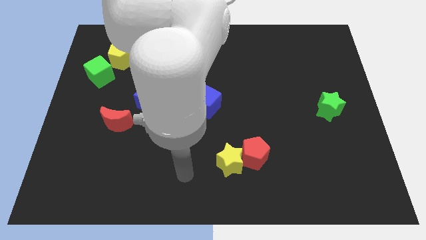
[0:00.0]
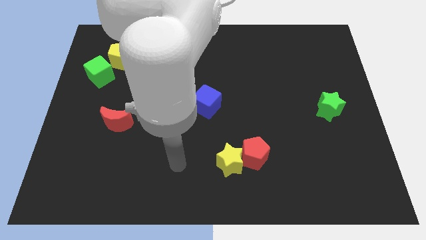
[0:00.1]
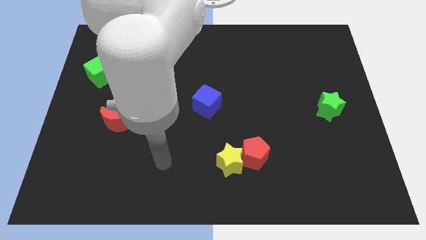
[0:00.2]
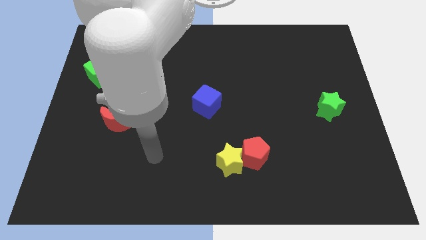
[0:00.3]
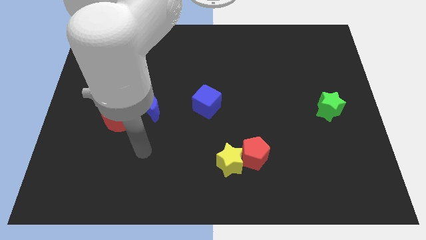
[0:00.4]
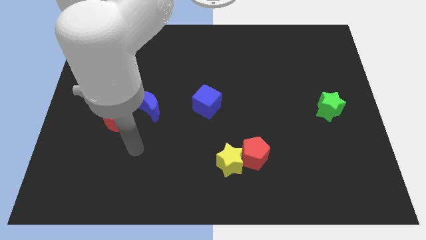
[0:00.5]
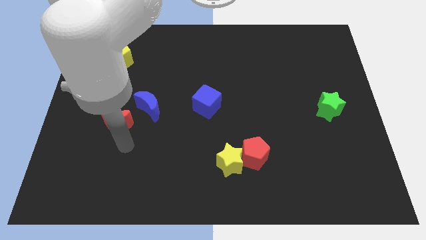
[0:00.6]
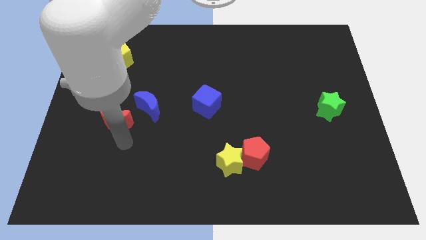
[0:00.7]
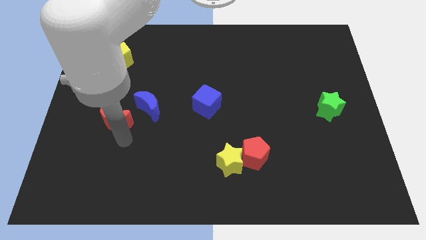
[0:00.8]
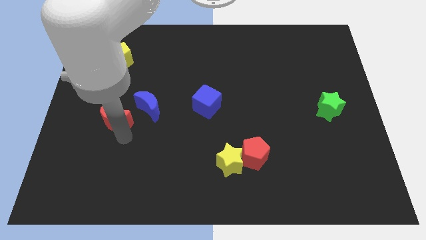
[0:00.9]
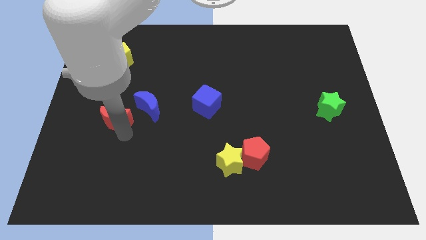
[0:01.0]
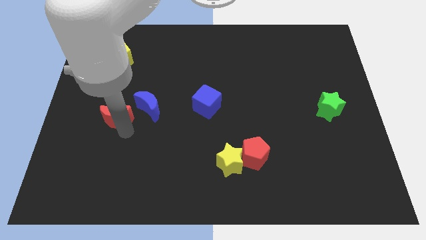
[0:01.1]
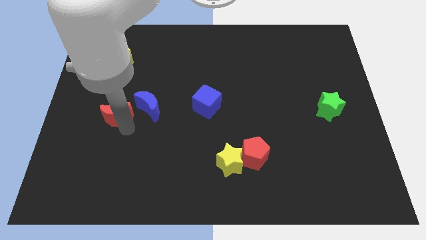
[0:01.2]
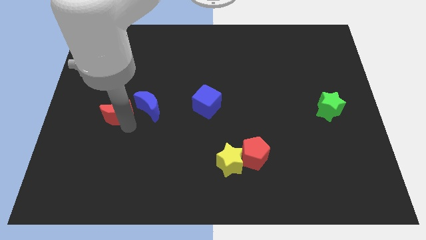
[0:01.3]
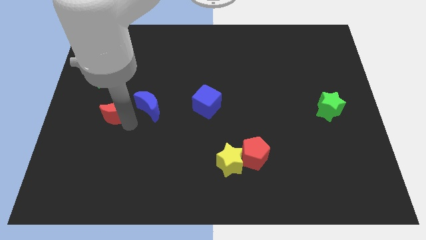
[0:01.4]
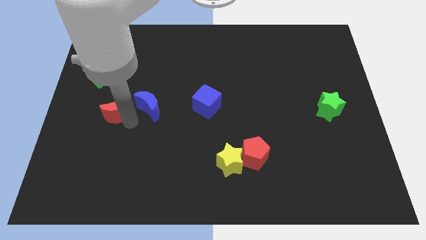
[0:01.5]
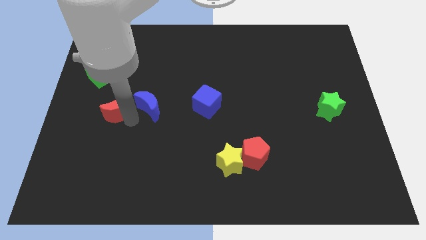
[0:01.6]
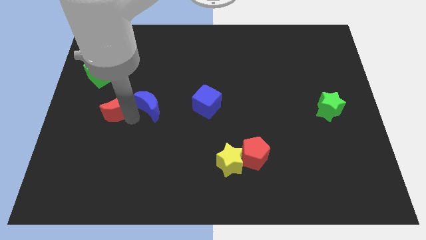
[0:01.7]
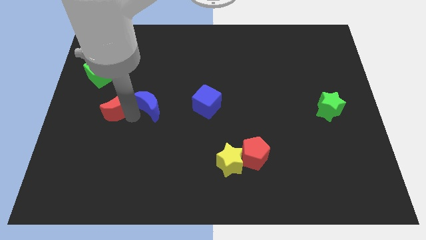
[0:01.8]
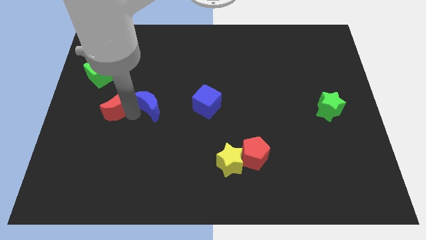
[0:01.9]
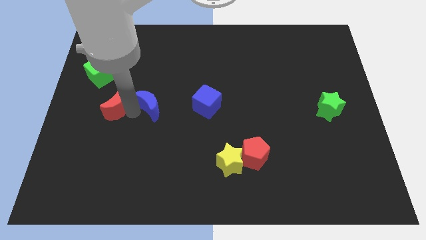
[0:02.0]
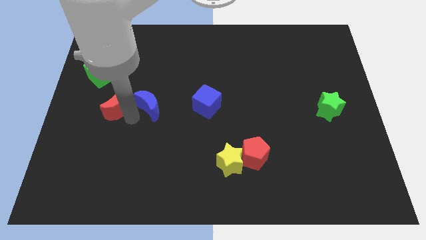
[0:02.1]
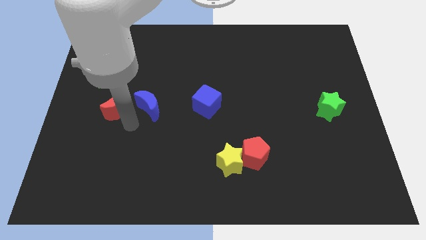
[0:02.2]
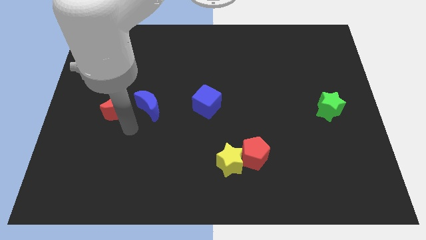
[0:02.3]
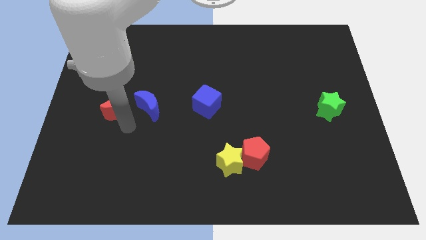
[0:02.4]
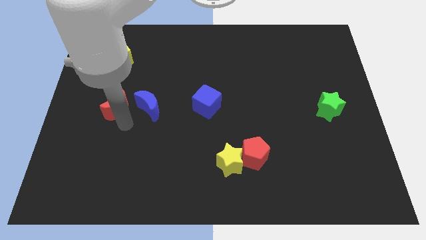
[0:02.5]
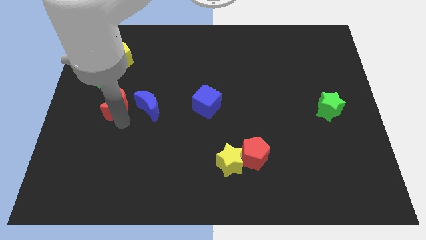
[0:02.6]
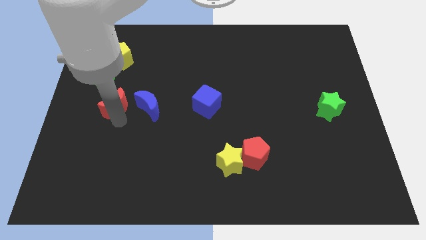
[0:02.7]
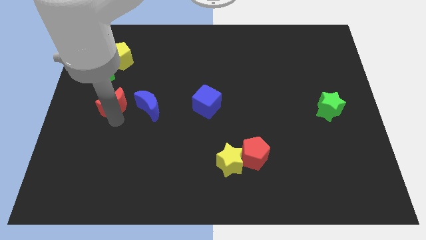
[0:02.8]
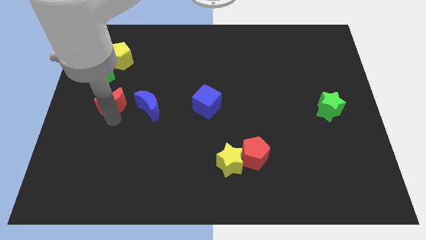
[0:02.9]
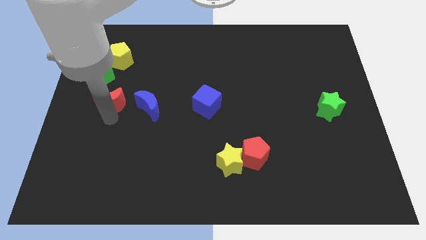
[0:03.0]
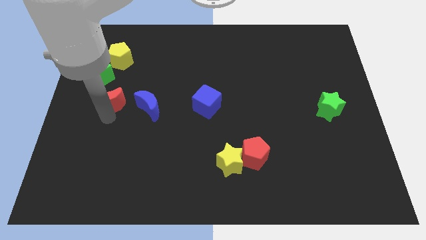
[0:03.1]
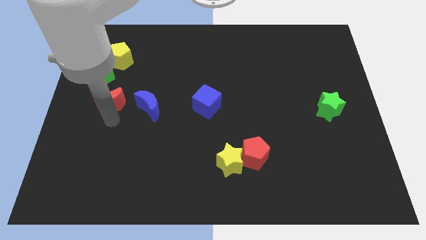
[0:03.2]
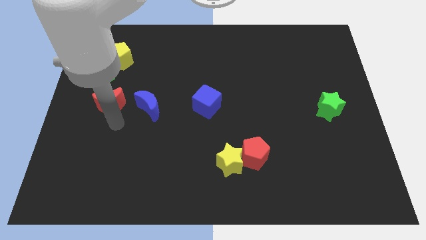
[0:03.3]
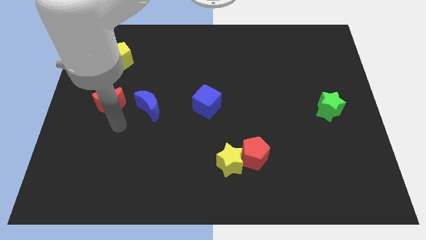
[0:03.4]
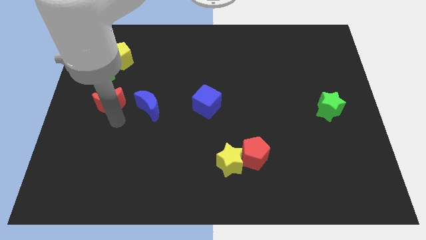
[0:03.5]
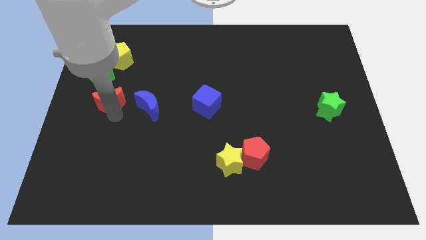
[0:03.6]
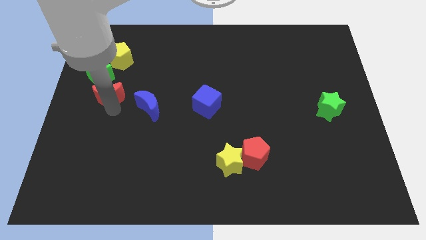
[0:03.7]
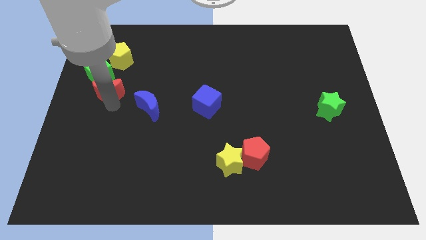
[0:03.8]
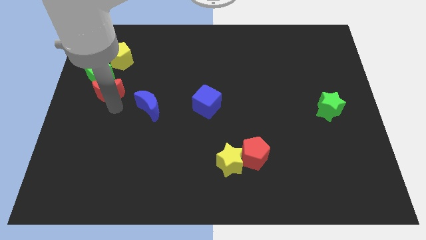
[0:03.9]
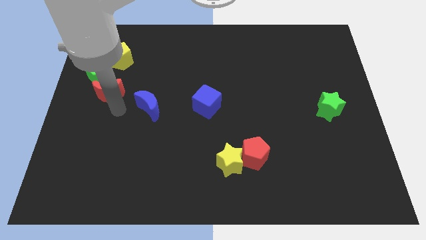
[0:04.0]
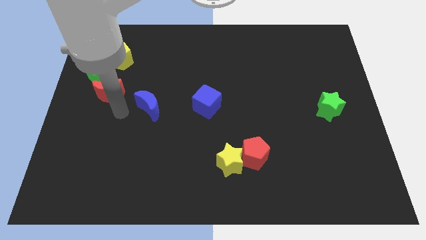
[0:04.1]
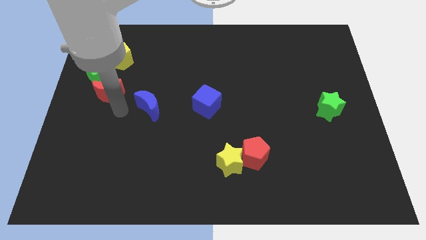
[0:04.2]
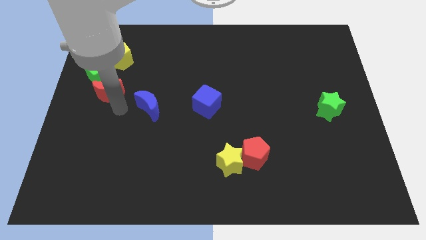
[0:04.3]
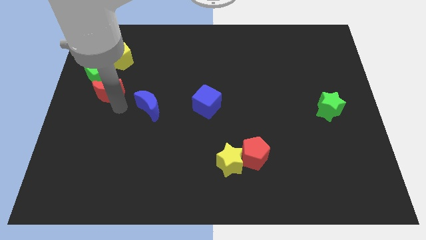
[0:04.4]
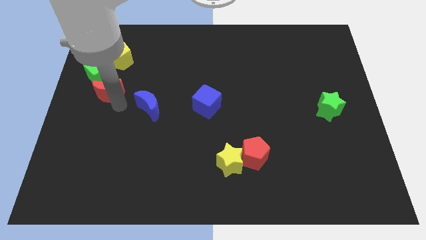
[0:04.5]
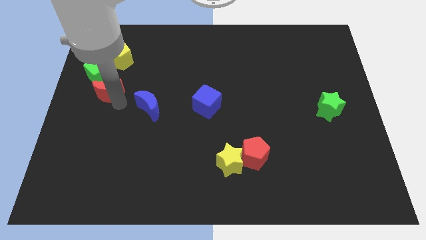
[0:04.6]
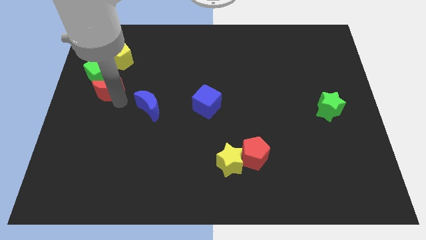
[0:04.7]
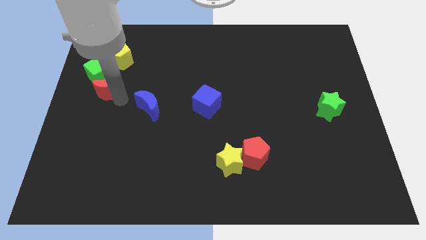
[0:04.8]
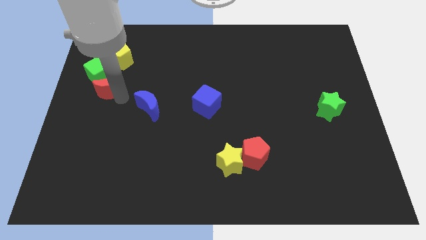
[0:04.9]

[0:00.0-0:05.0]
put the red moon next to the green cube

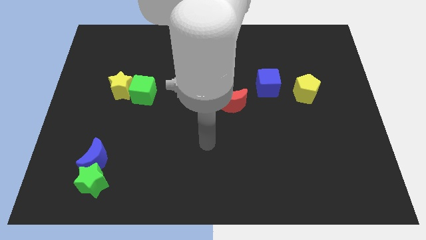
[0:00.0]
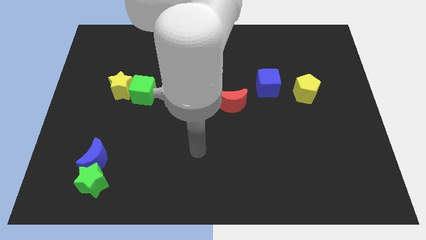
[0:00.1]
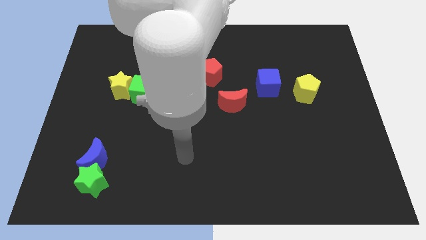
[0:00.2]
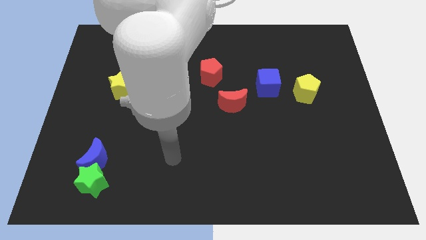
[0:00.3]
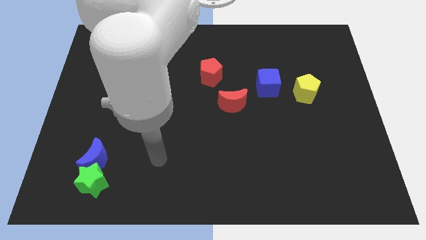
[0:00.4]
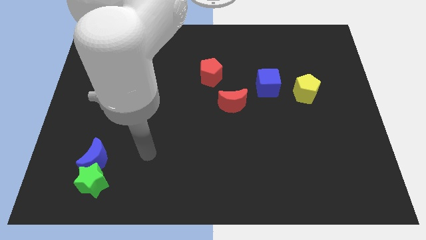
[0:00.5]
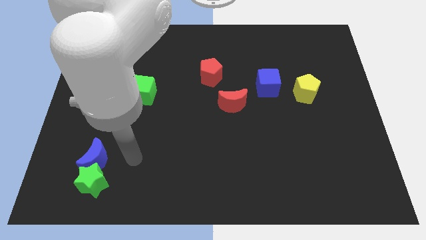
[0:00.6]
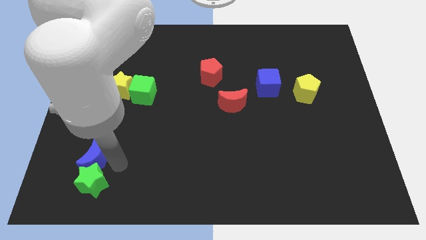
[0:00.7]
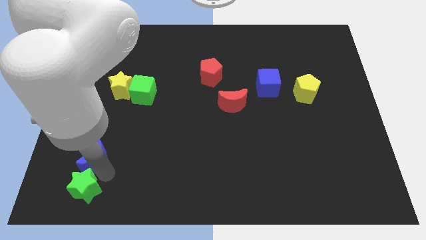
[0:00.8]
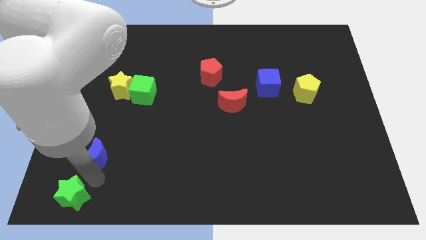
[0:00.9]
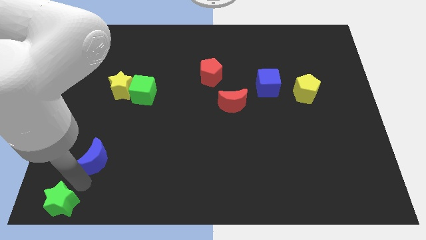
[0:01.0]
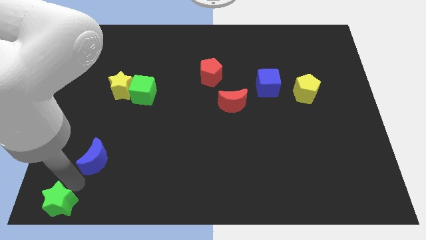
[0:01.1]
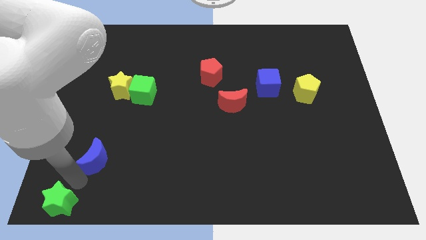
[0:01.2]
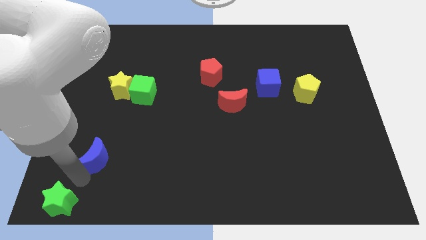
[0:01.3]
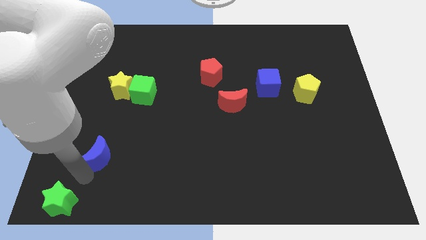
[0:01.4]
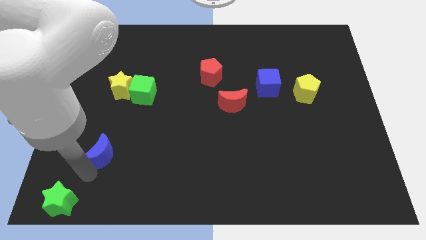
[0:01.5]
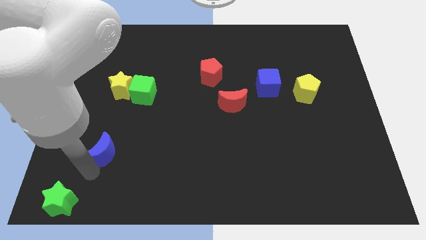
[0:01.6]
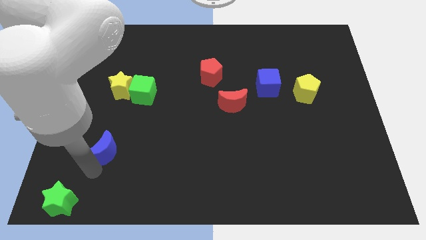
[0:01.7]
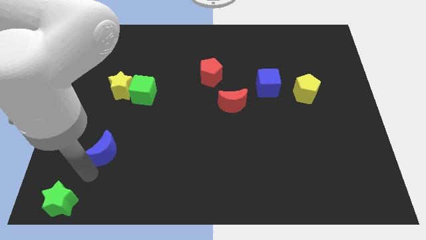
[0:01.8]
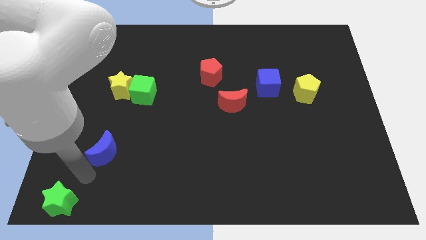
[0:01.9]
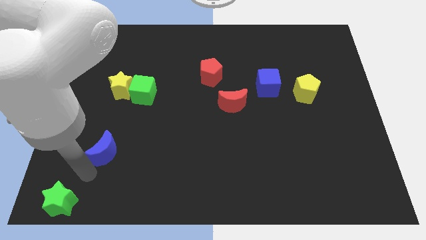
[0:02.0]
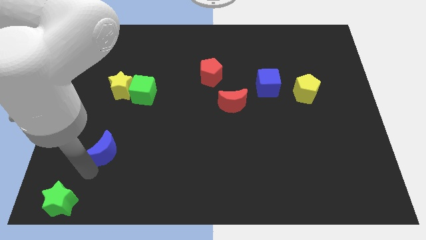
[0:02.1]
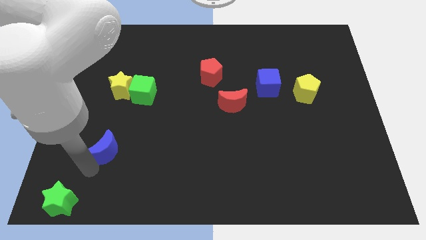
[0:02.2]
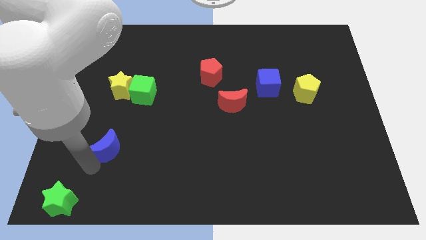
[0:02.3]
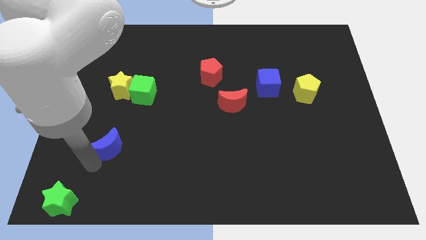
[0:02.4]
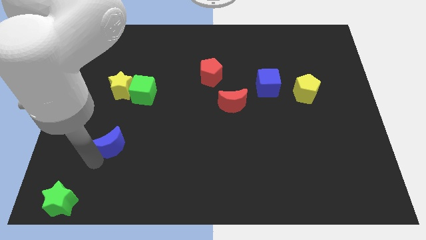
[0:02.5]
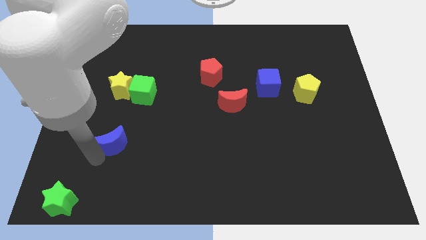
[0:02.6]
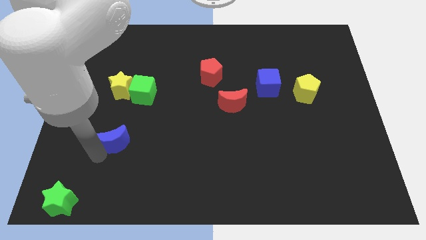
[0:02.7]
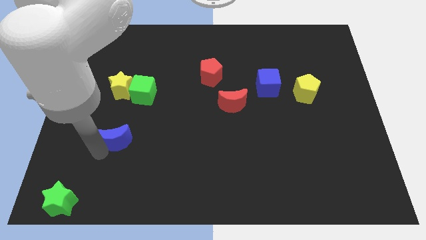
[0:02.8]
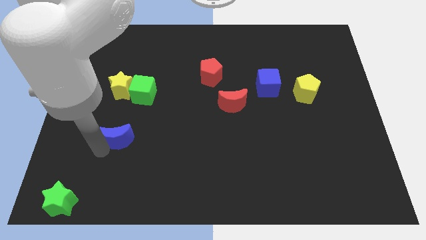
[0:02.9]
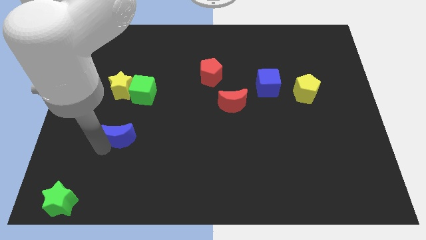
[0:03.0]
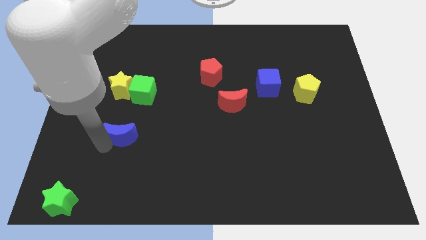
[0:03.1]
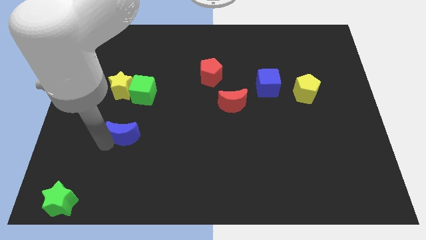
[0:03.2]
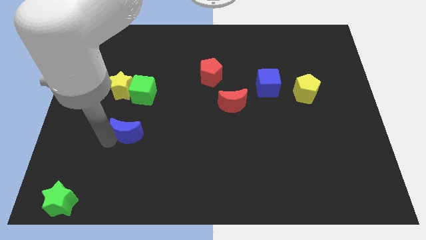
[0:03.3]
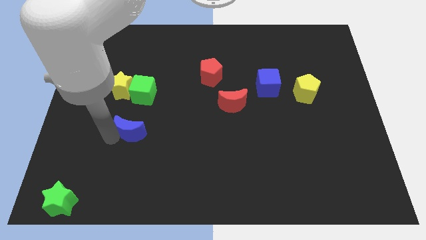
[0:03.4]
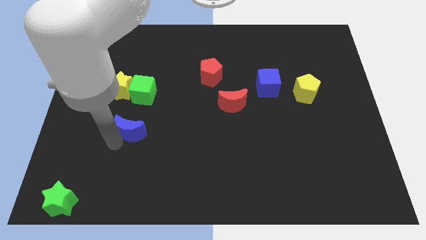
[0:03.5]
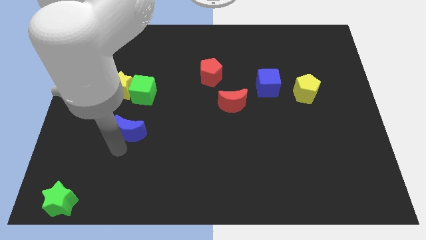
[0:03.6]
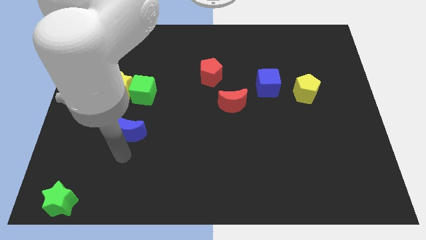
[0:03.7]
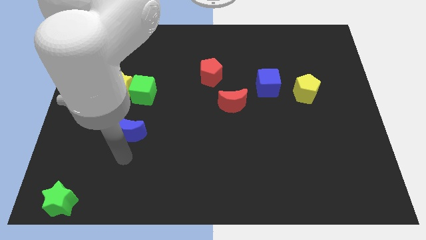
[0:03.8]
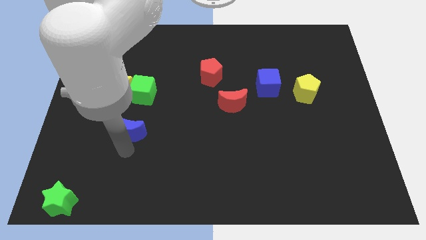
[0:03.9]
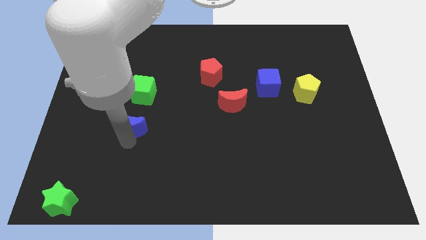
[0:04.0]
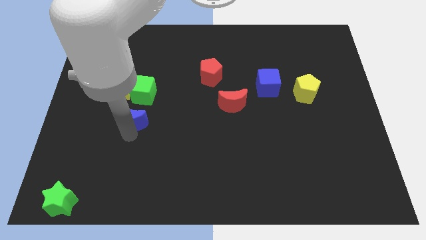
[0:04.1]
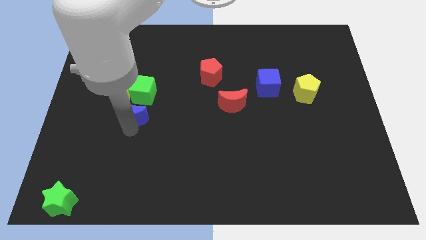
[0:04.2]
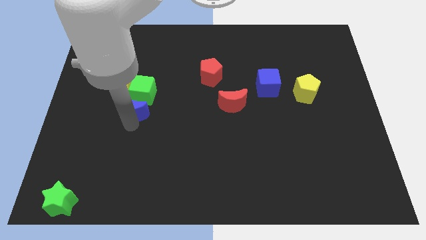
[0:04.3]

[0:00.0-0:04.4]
slide the blue moon to the green cube
